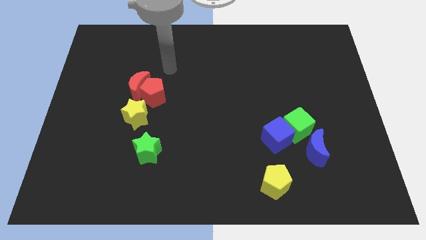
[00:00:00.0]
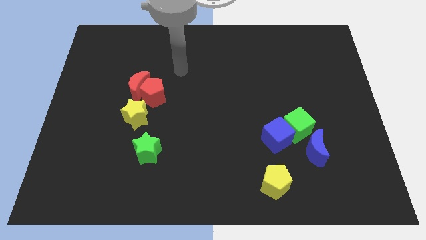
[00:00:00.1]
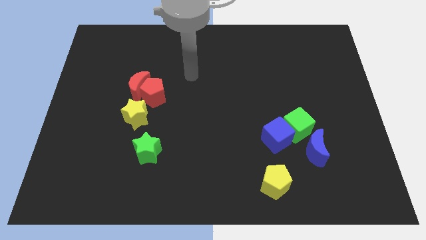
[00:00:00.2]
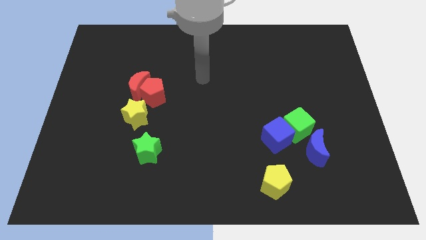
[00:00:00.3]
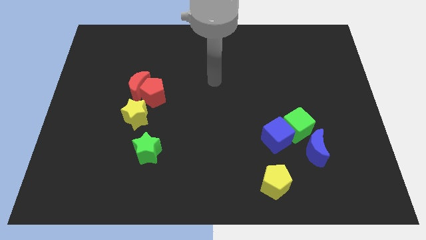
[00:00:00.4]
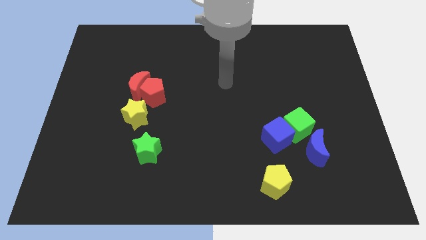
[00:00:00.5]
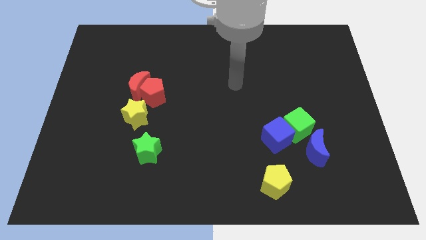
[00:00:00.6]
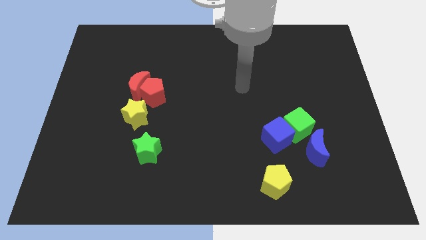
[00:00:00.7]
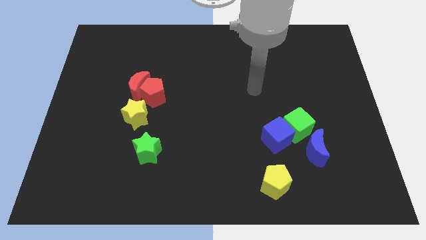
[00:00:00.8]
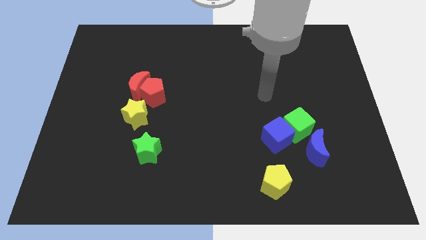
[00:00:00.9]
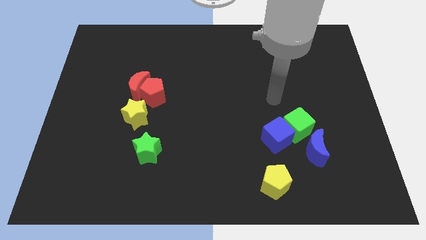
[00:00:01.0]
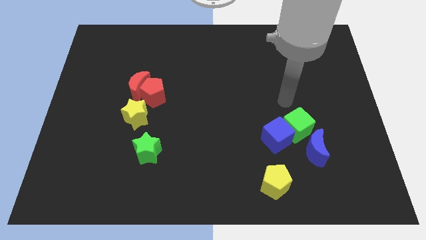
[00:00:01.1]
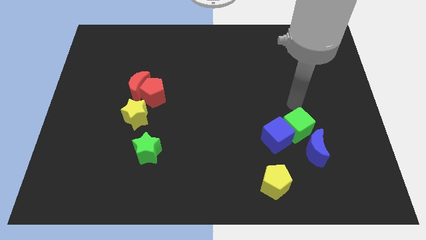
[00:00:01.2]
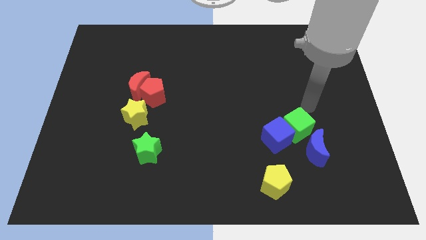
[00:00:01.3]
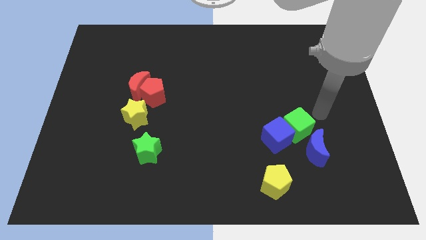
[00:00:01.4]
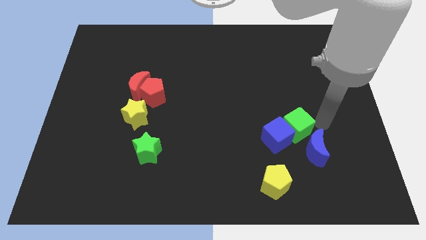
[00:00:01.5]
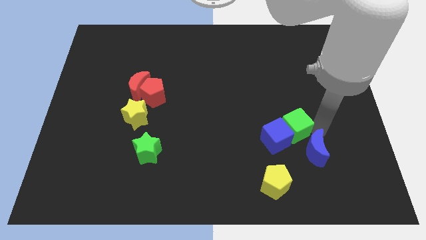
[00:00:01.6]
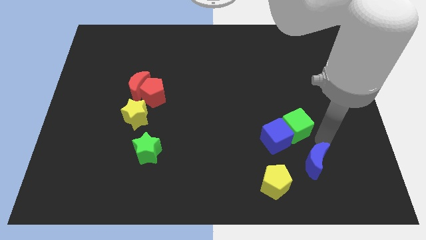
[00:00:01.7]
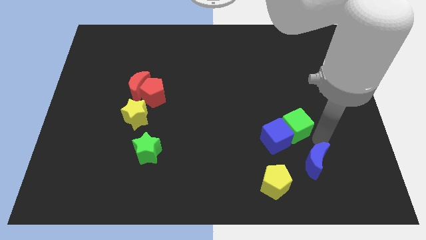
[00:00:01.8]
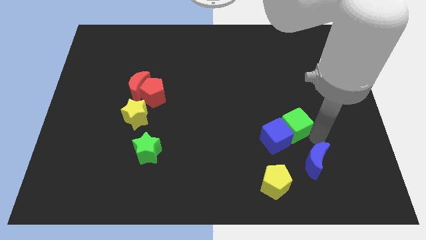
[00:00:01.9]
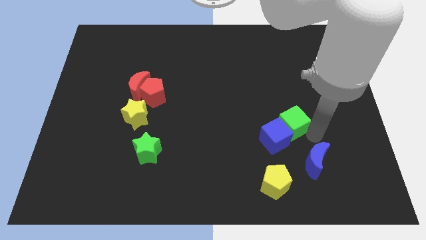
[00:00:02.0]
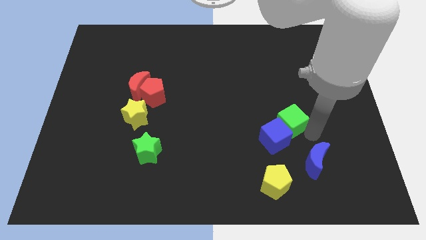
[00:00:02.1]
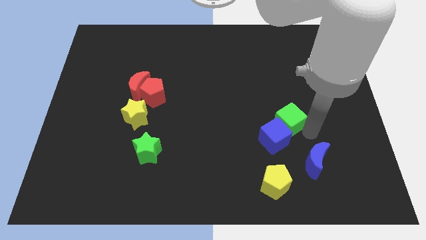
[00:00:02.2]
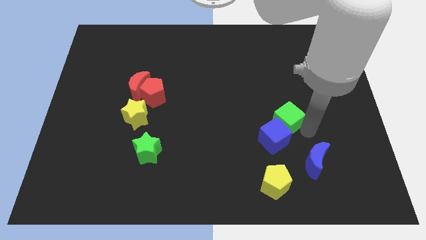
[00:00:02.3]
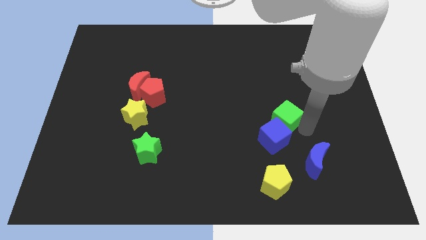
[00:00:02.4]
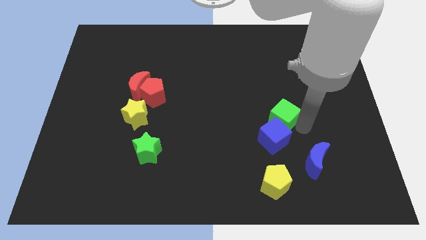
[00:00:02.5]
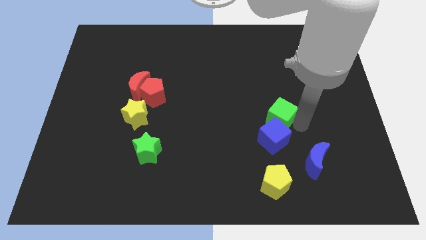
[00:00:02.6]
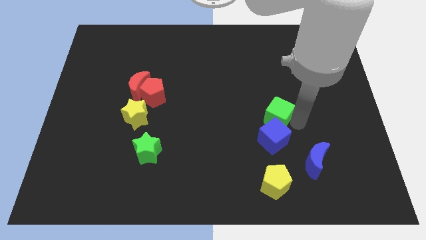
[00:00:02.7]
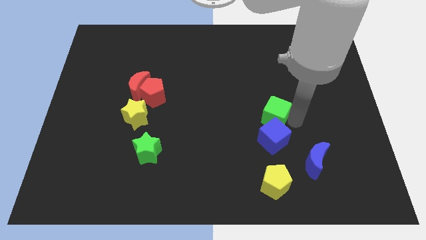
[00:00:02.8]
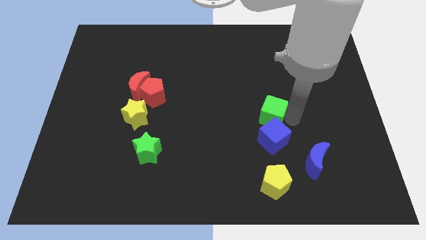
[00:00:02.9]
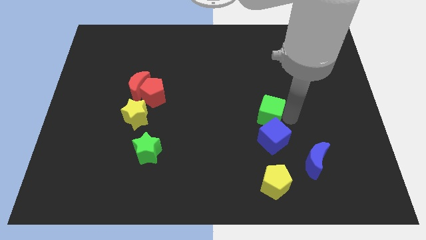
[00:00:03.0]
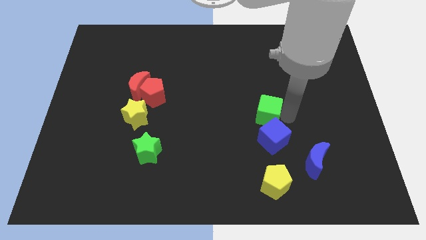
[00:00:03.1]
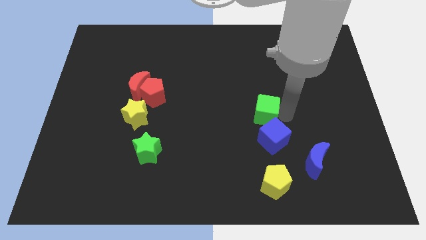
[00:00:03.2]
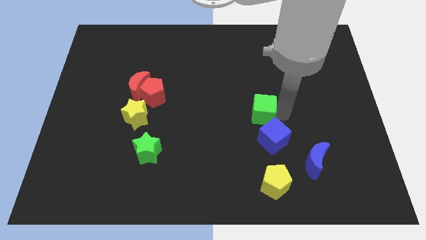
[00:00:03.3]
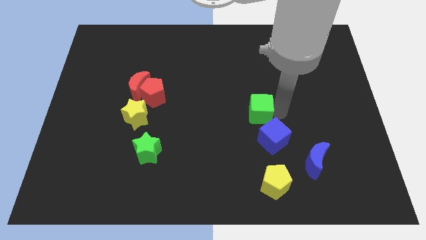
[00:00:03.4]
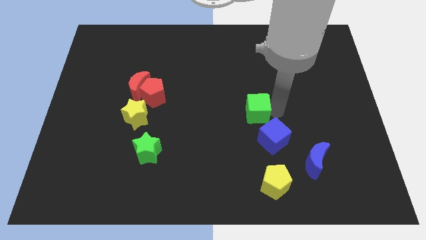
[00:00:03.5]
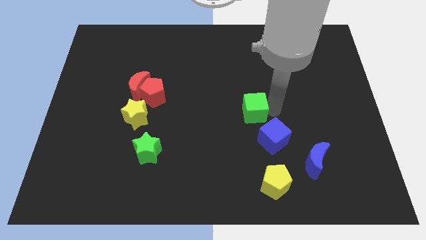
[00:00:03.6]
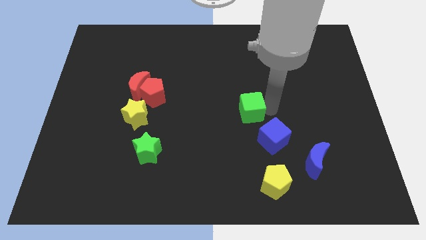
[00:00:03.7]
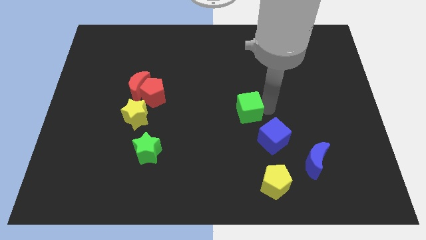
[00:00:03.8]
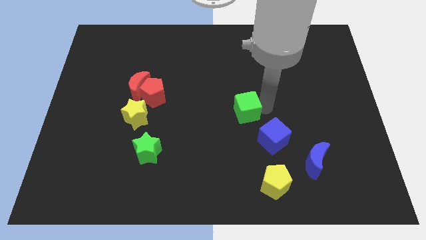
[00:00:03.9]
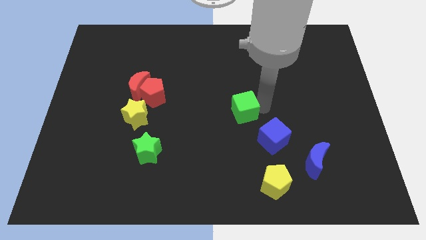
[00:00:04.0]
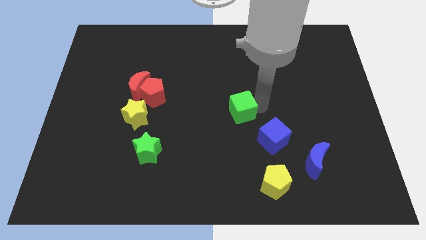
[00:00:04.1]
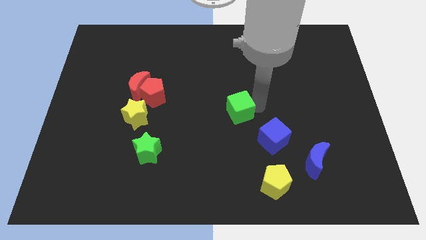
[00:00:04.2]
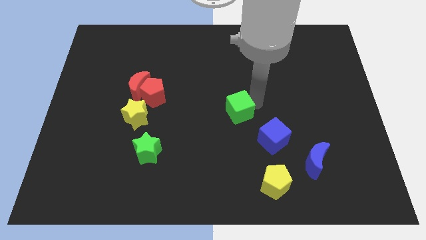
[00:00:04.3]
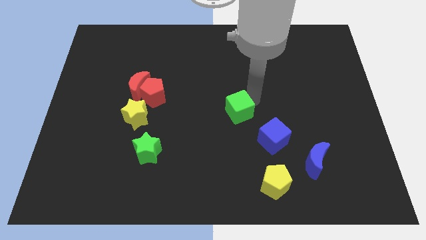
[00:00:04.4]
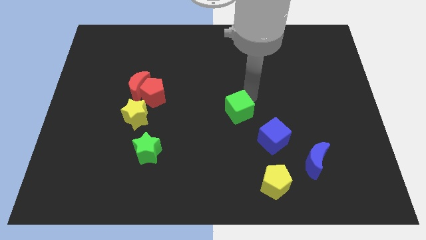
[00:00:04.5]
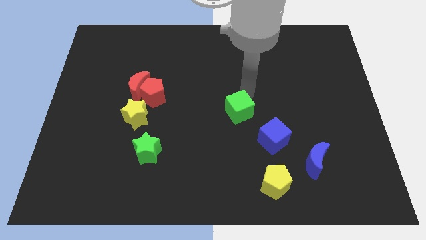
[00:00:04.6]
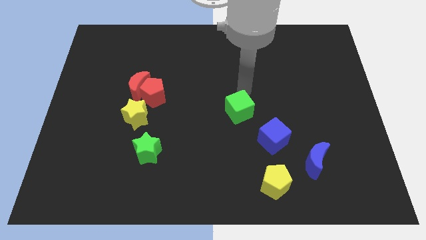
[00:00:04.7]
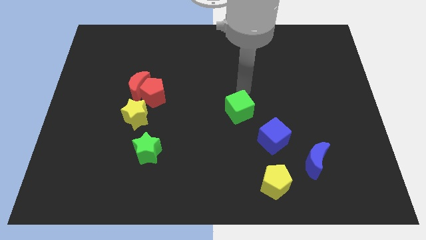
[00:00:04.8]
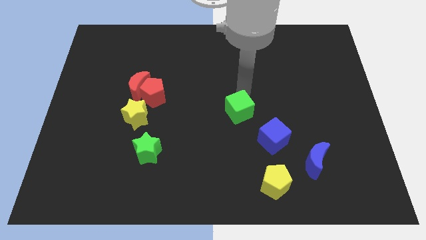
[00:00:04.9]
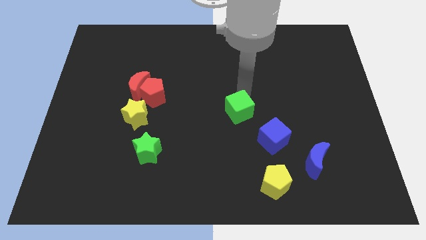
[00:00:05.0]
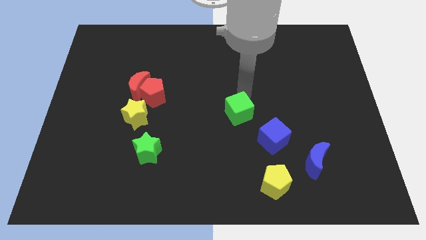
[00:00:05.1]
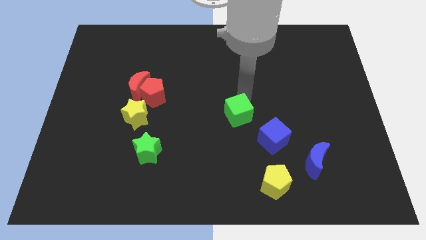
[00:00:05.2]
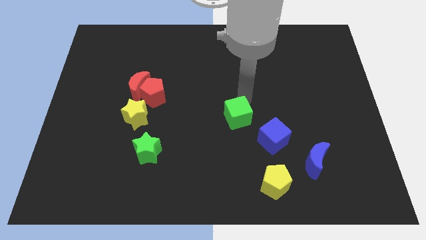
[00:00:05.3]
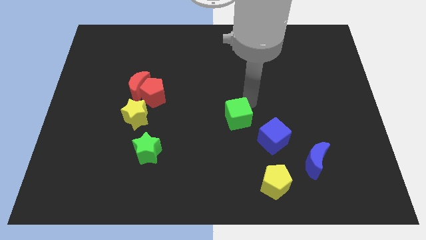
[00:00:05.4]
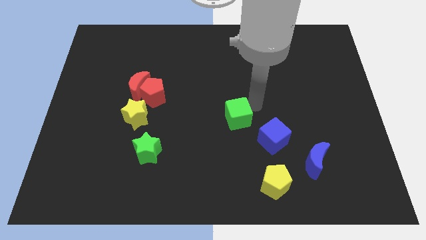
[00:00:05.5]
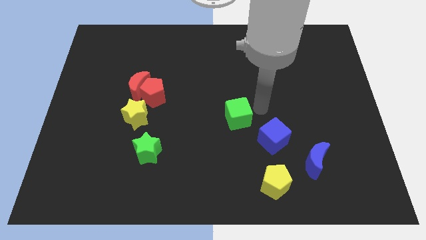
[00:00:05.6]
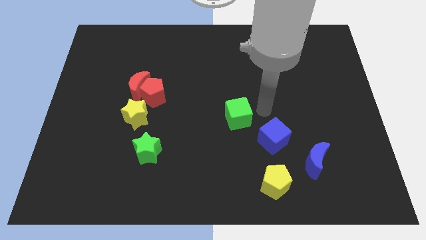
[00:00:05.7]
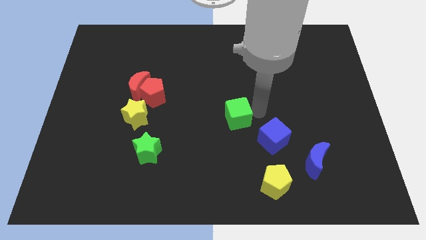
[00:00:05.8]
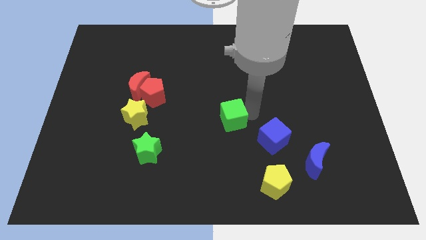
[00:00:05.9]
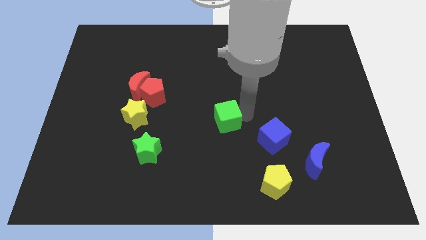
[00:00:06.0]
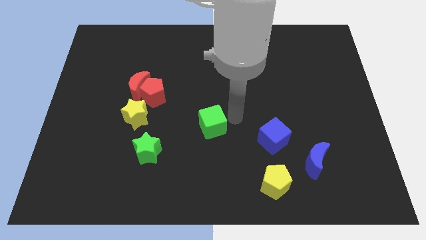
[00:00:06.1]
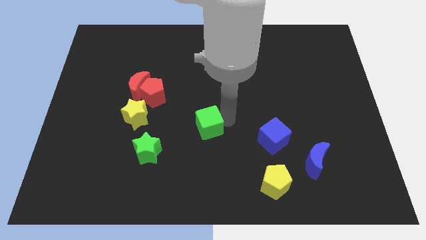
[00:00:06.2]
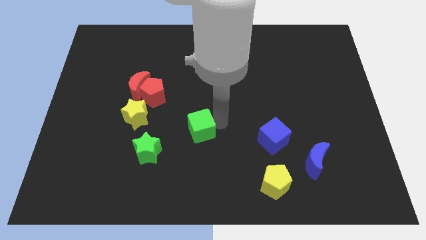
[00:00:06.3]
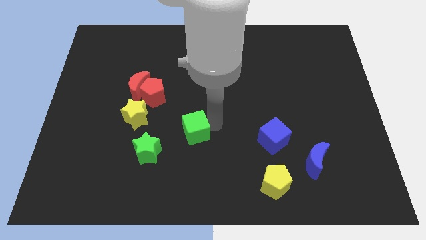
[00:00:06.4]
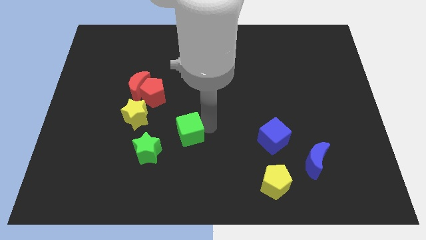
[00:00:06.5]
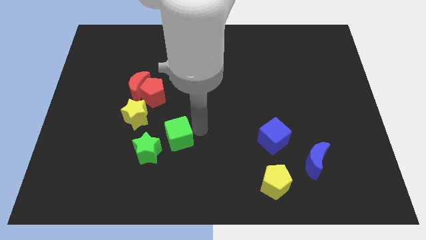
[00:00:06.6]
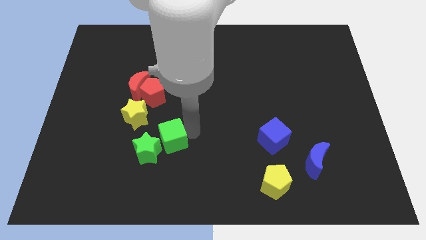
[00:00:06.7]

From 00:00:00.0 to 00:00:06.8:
push the green cube close to the green star
